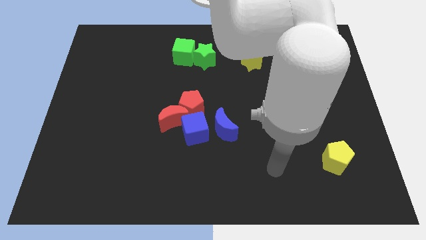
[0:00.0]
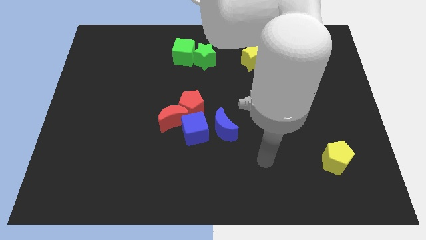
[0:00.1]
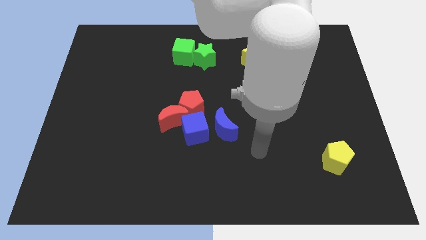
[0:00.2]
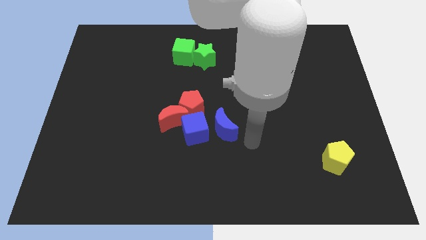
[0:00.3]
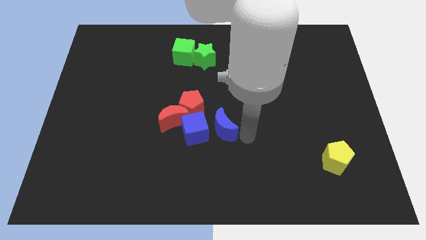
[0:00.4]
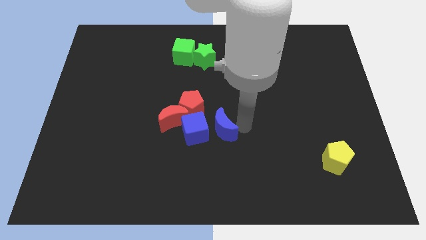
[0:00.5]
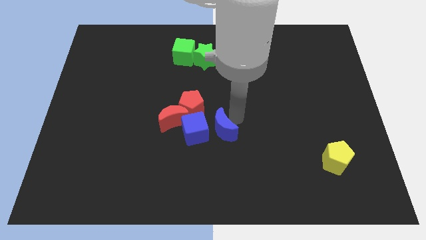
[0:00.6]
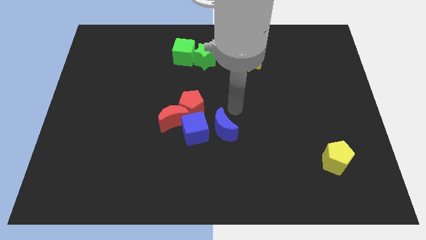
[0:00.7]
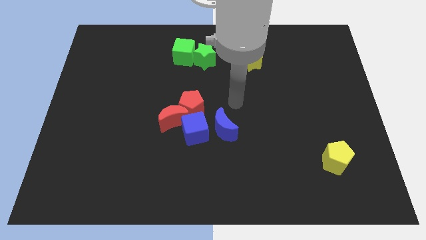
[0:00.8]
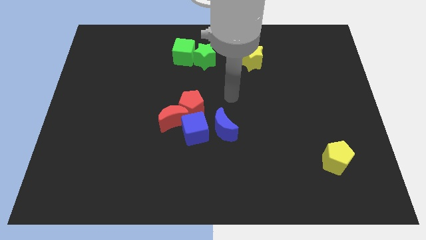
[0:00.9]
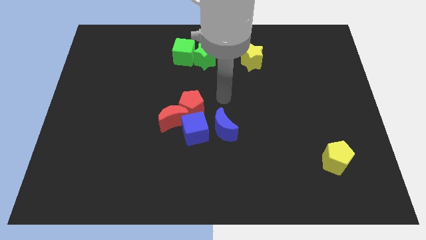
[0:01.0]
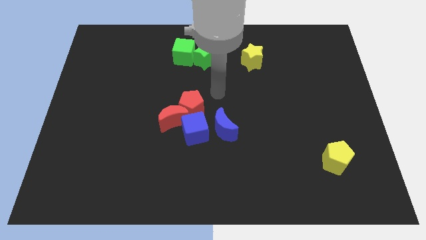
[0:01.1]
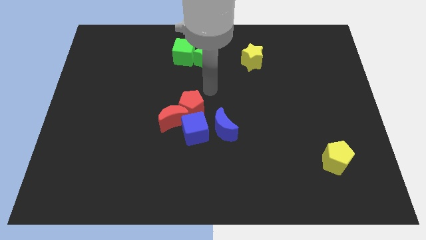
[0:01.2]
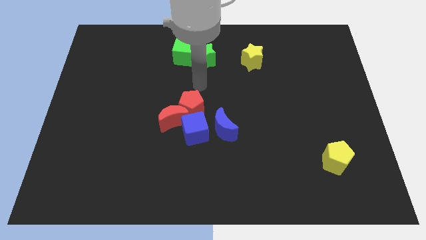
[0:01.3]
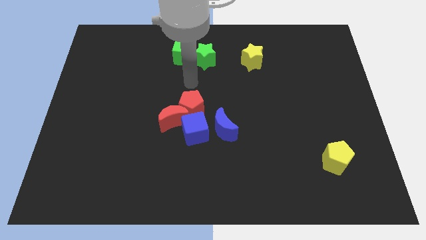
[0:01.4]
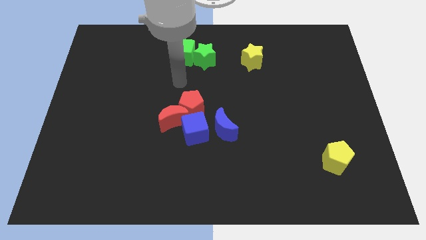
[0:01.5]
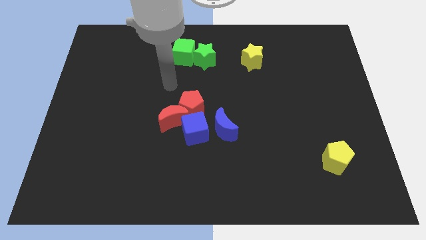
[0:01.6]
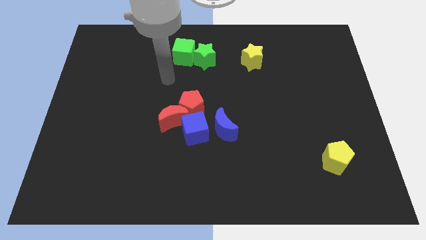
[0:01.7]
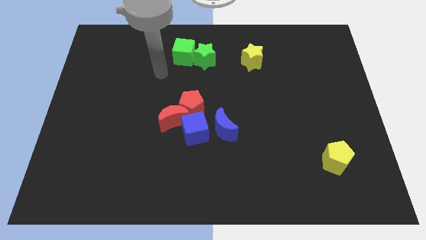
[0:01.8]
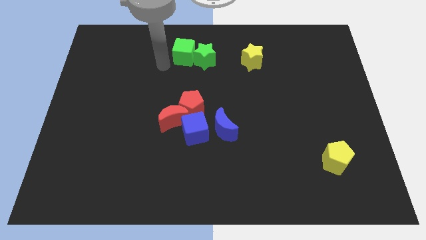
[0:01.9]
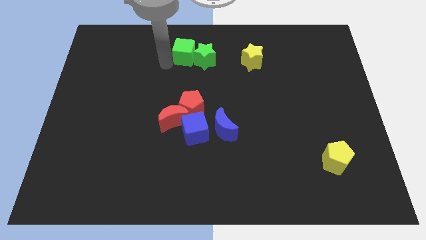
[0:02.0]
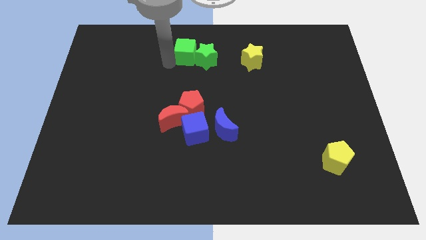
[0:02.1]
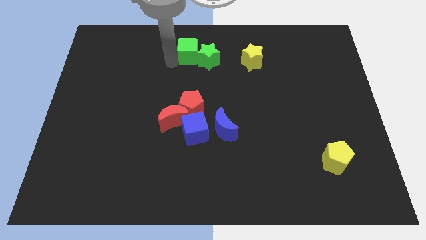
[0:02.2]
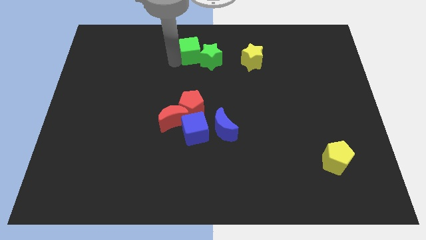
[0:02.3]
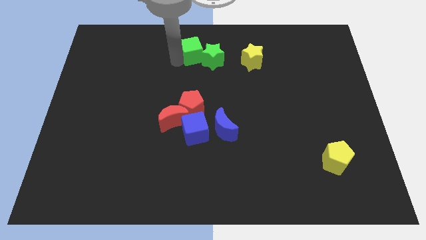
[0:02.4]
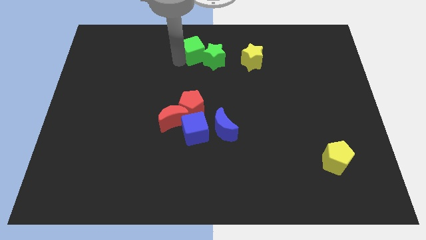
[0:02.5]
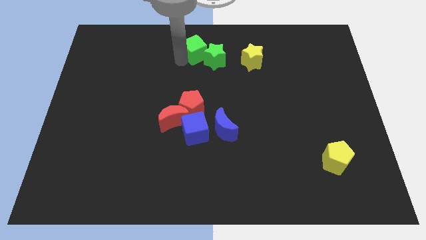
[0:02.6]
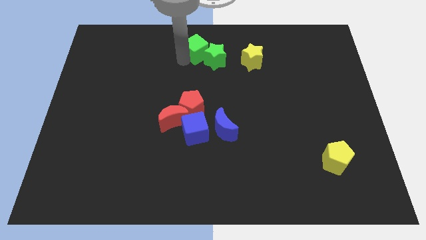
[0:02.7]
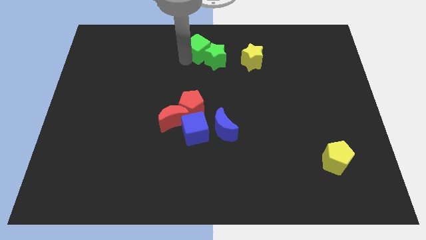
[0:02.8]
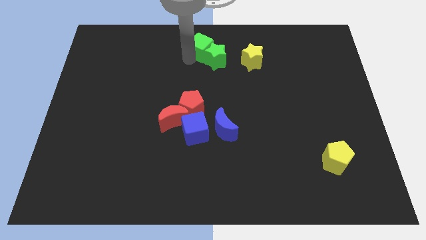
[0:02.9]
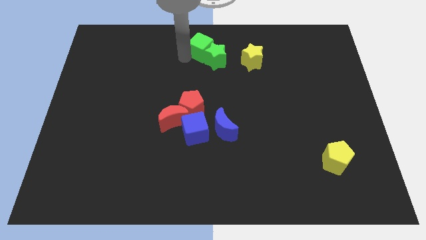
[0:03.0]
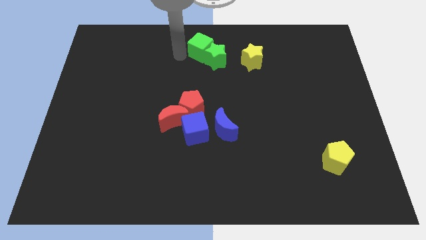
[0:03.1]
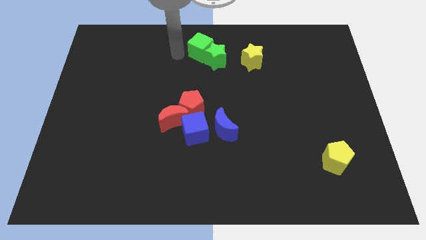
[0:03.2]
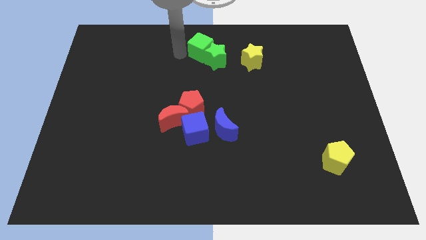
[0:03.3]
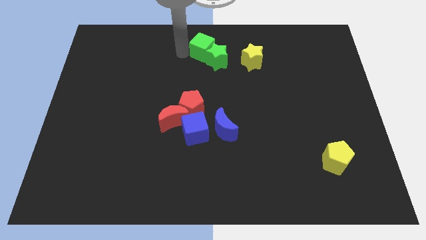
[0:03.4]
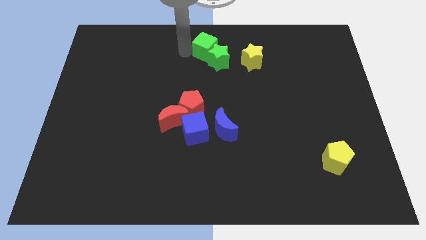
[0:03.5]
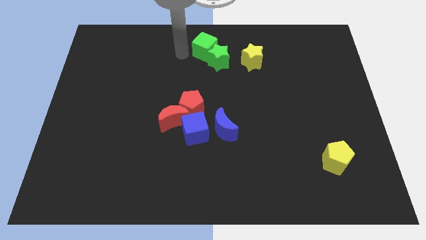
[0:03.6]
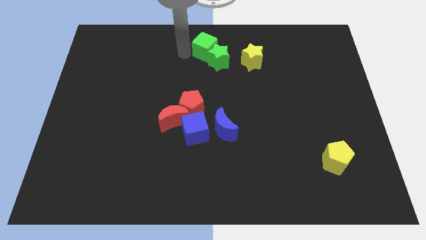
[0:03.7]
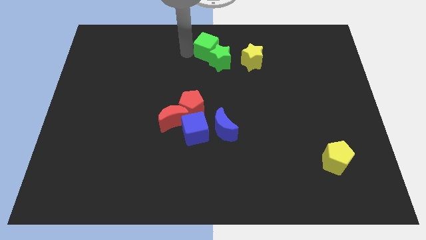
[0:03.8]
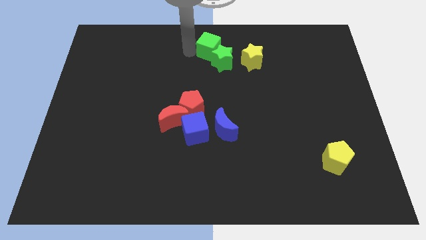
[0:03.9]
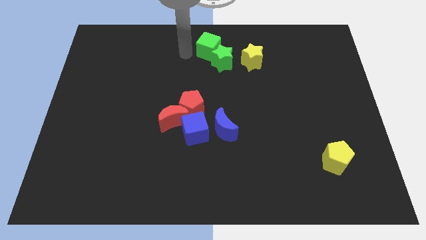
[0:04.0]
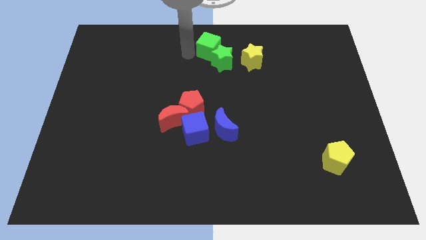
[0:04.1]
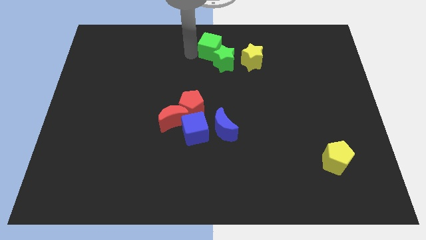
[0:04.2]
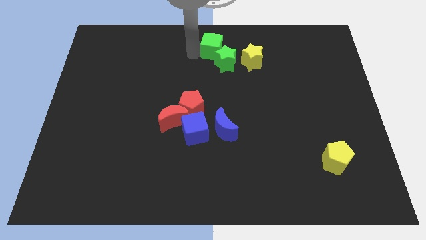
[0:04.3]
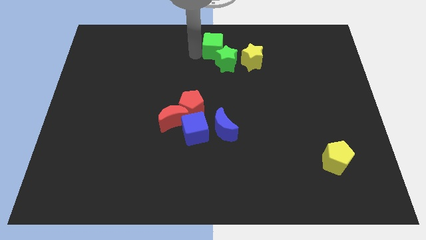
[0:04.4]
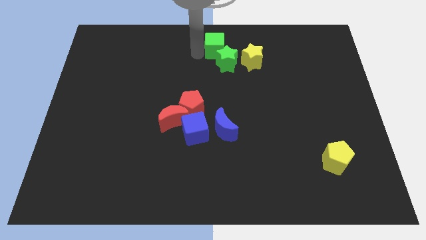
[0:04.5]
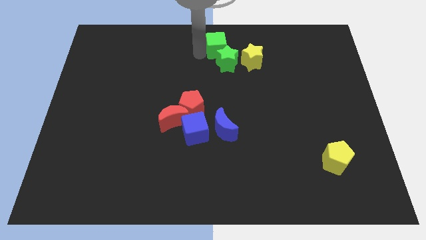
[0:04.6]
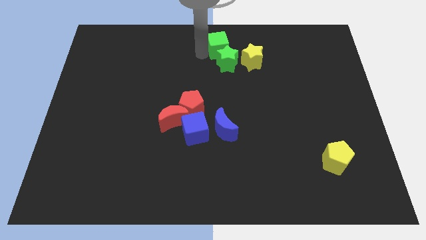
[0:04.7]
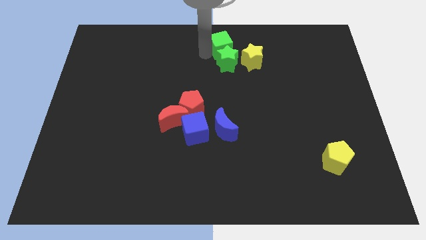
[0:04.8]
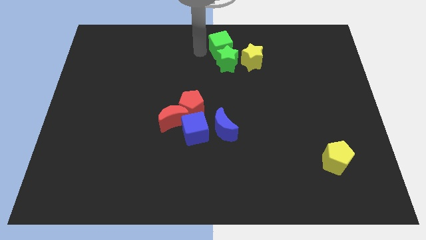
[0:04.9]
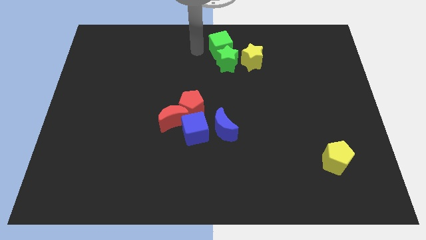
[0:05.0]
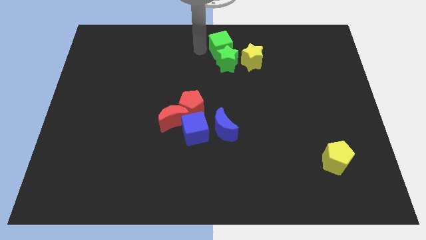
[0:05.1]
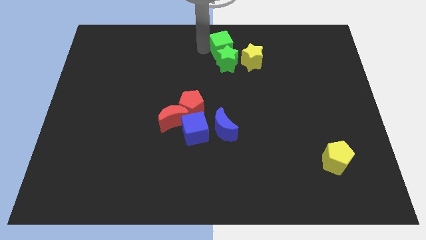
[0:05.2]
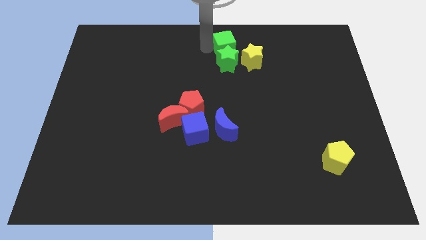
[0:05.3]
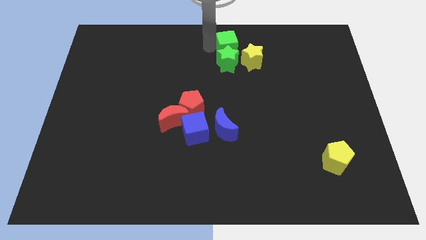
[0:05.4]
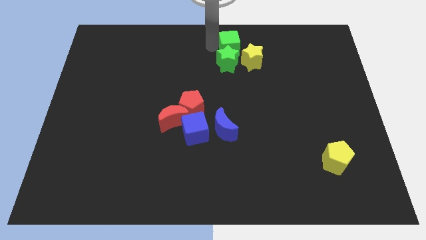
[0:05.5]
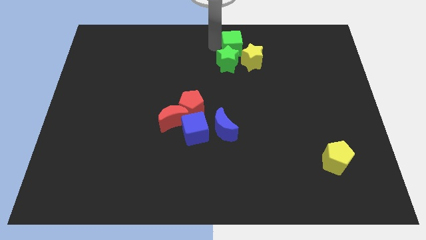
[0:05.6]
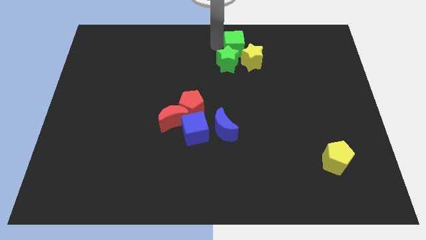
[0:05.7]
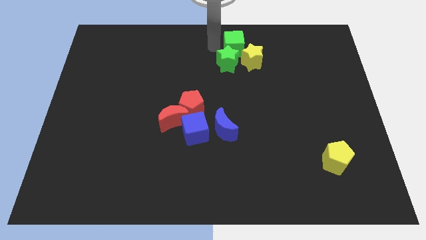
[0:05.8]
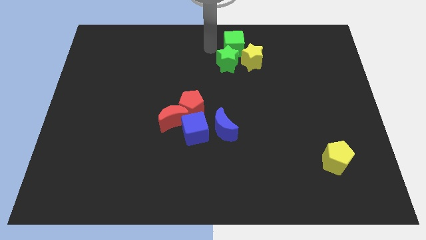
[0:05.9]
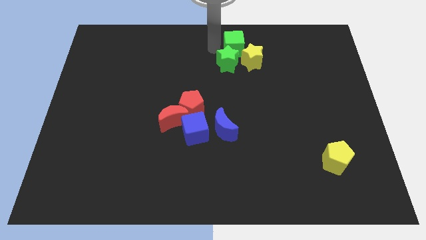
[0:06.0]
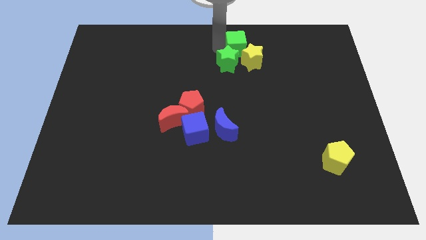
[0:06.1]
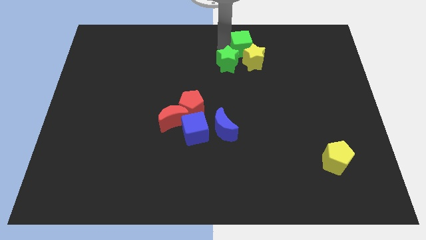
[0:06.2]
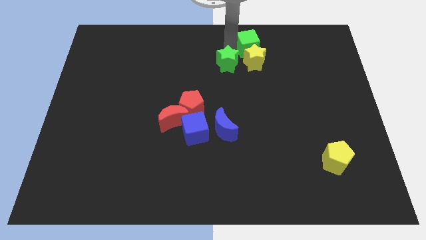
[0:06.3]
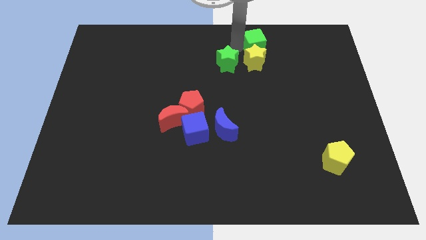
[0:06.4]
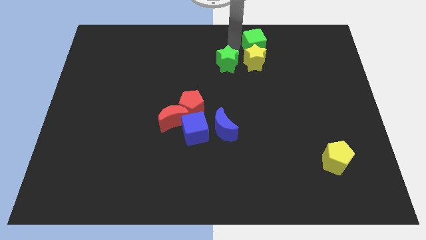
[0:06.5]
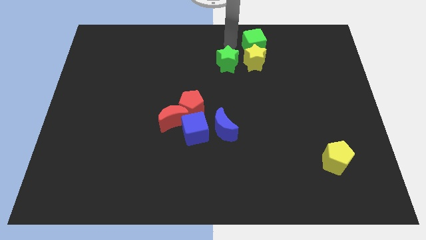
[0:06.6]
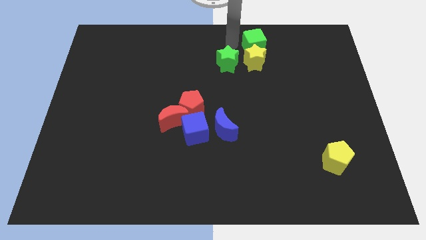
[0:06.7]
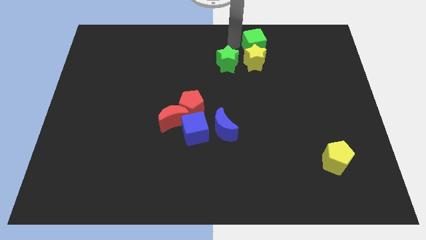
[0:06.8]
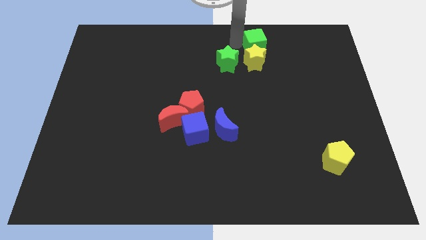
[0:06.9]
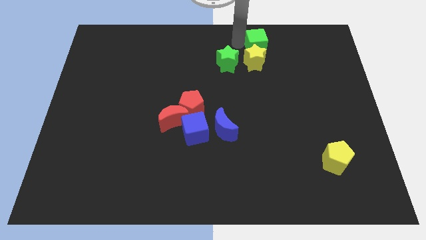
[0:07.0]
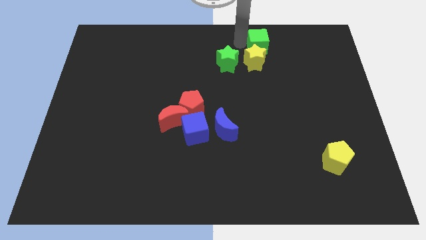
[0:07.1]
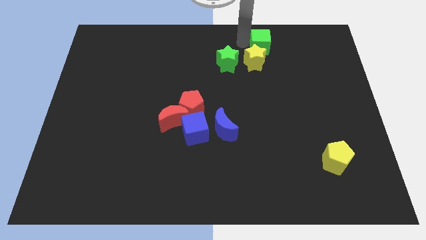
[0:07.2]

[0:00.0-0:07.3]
slide the green cube right

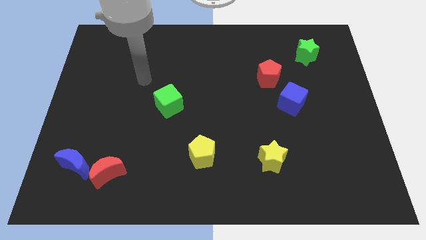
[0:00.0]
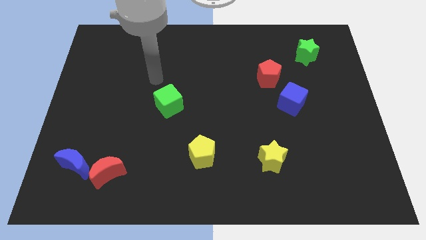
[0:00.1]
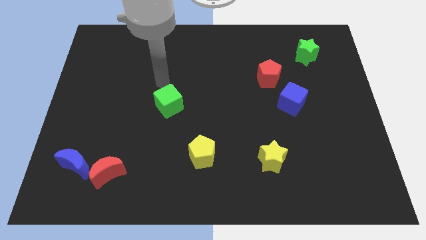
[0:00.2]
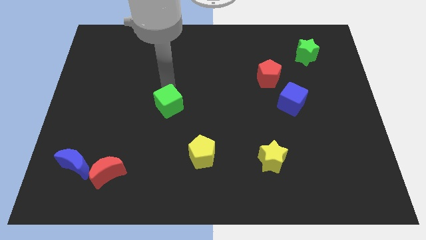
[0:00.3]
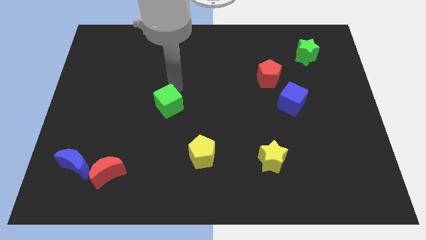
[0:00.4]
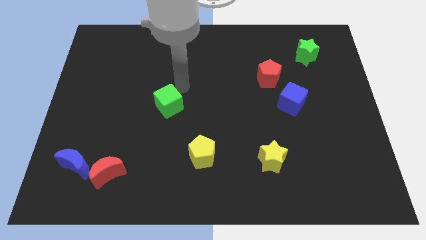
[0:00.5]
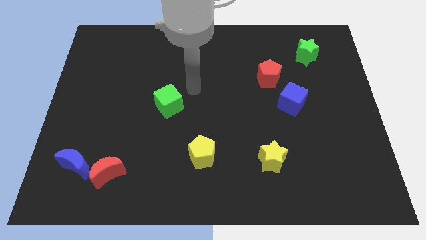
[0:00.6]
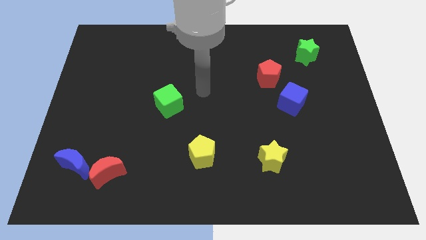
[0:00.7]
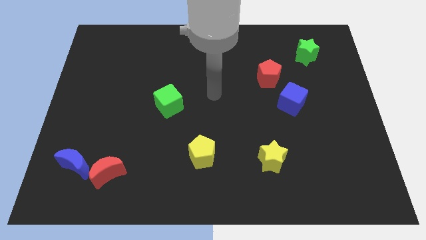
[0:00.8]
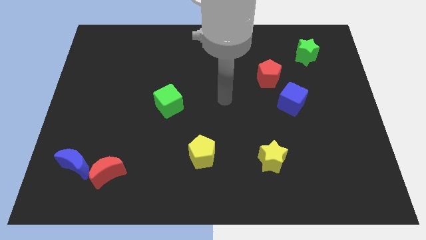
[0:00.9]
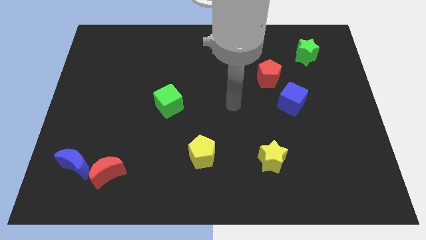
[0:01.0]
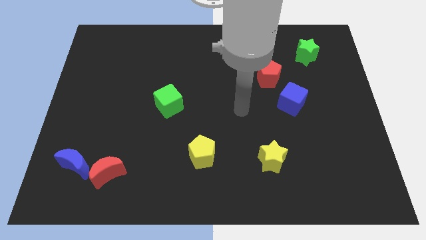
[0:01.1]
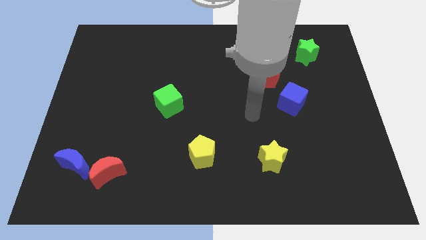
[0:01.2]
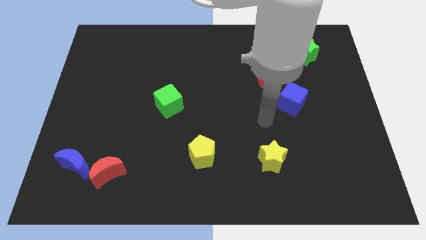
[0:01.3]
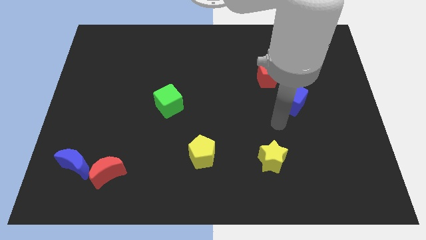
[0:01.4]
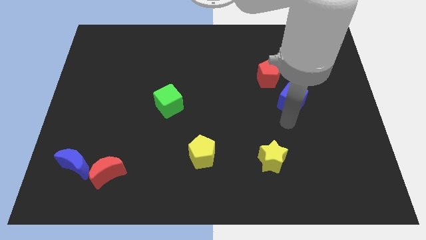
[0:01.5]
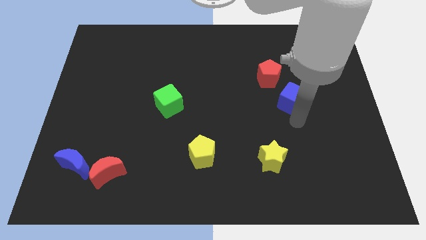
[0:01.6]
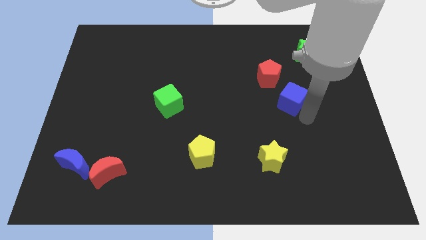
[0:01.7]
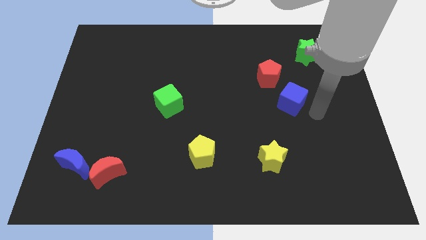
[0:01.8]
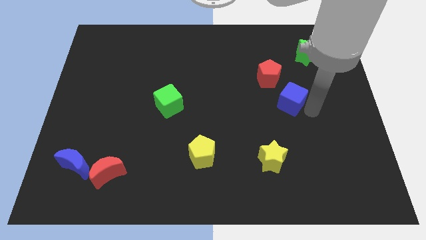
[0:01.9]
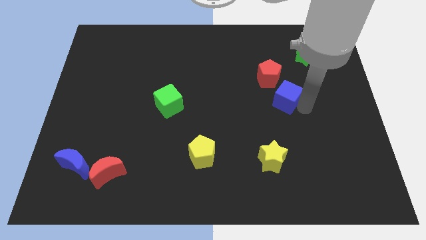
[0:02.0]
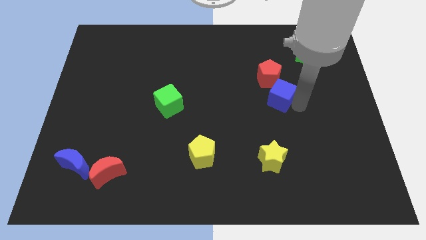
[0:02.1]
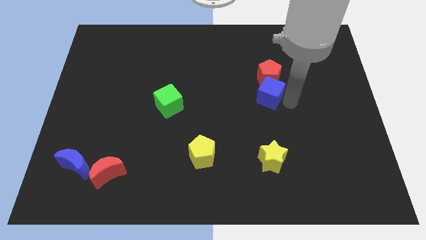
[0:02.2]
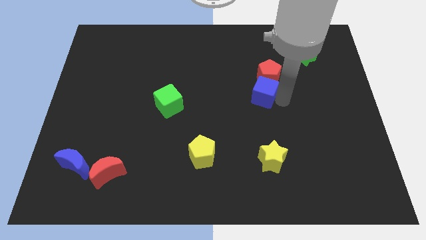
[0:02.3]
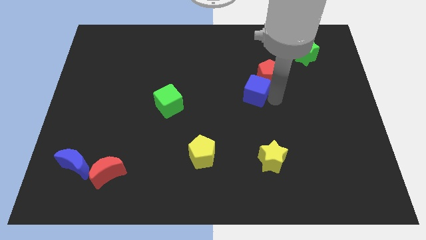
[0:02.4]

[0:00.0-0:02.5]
push the blue cube up and then left a bit
